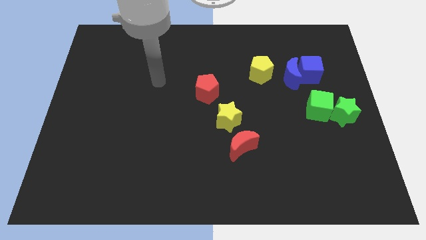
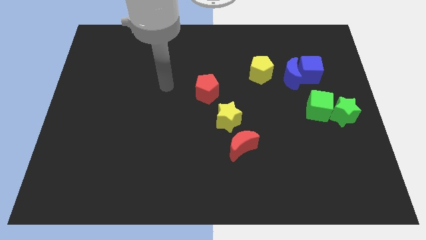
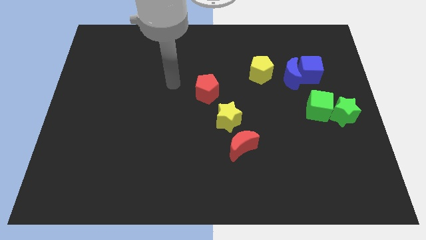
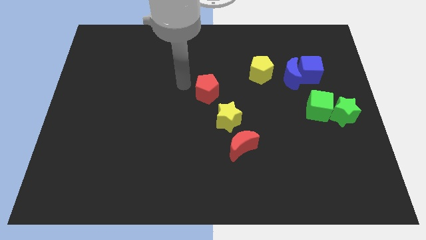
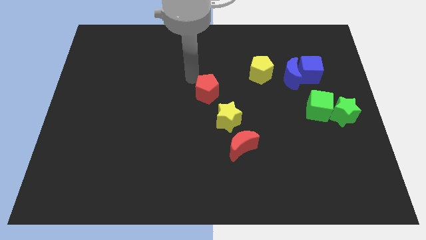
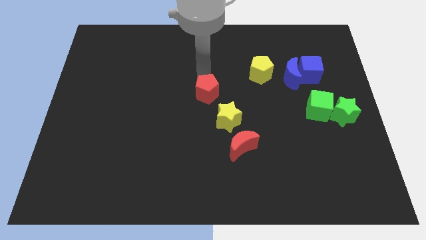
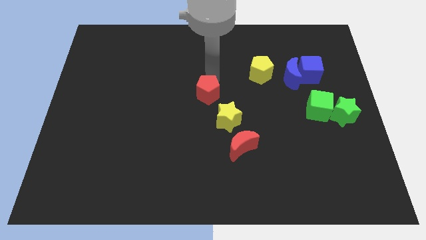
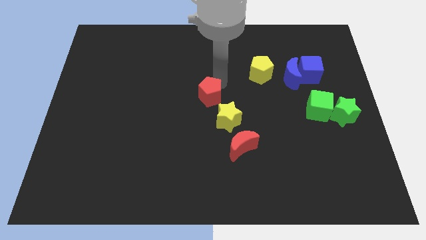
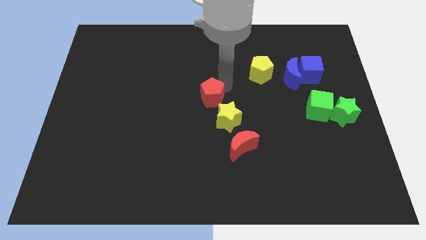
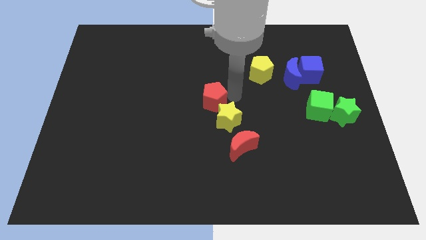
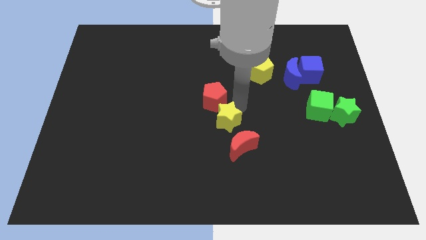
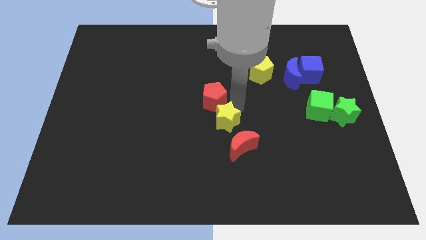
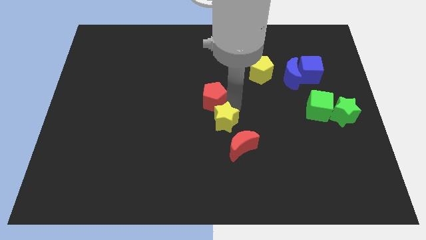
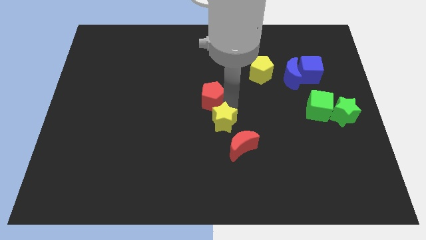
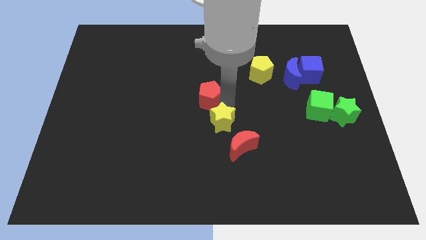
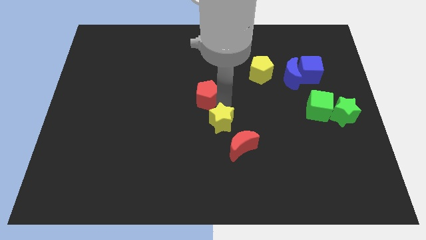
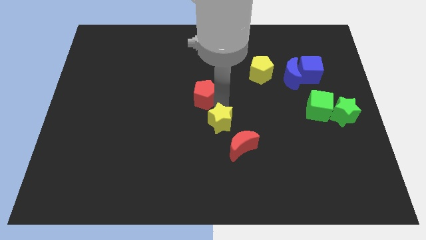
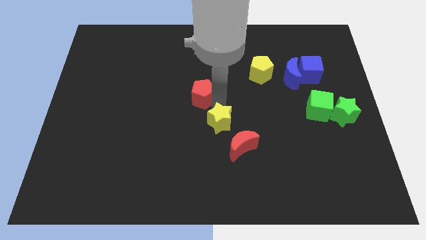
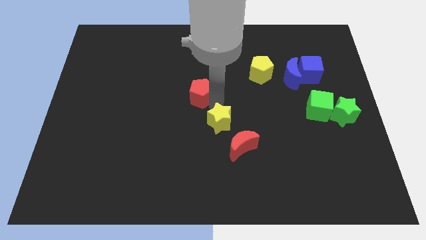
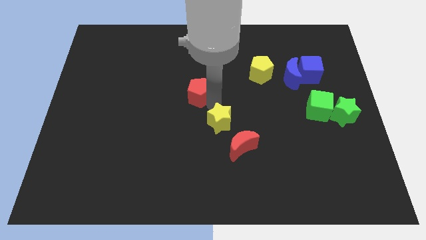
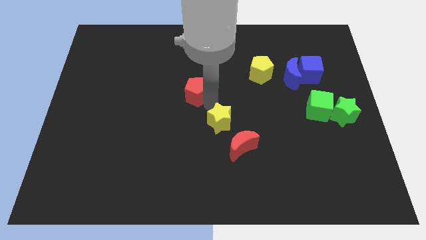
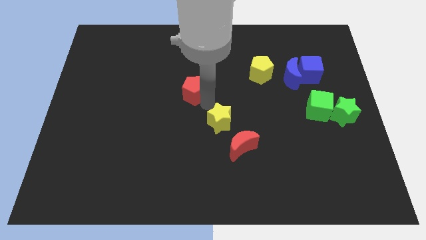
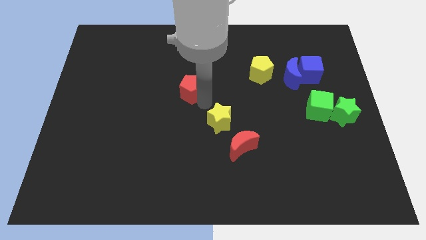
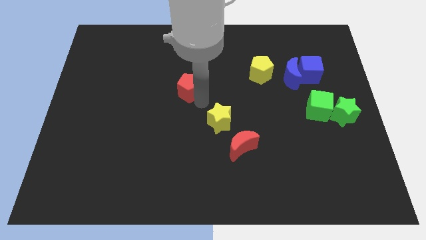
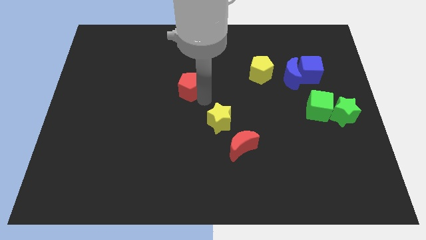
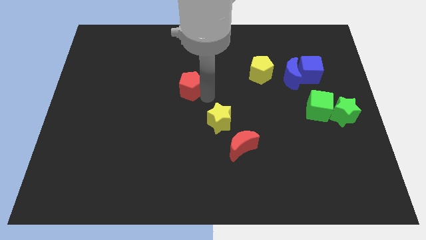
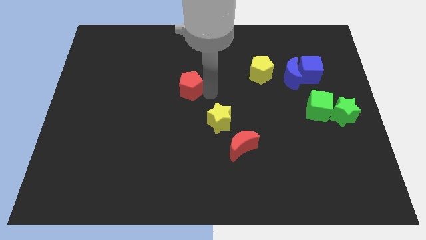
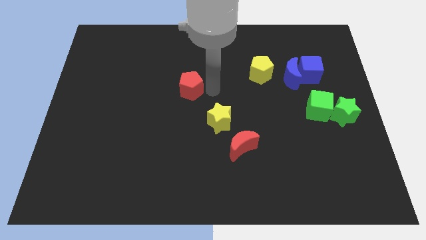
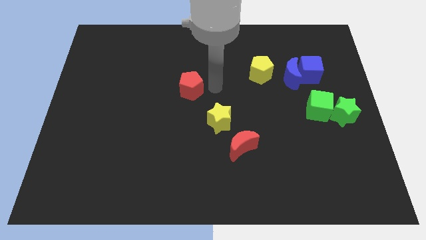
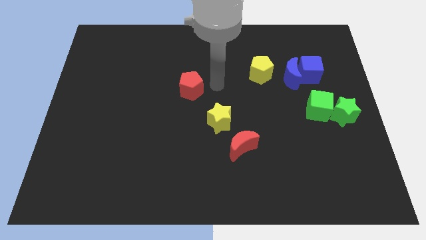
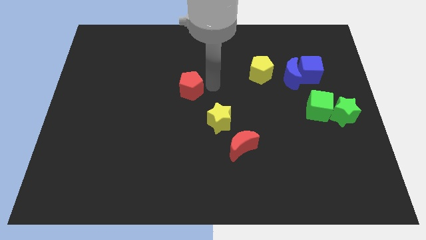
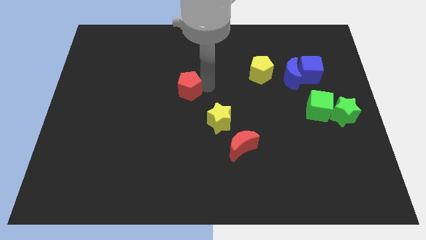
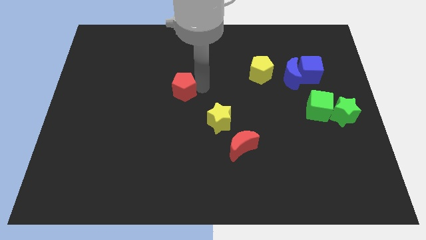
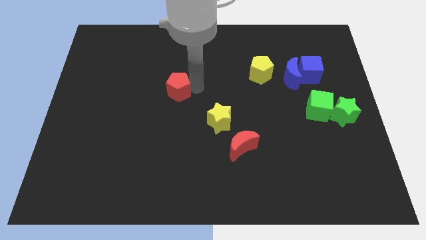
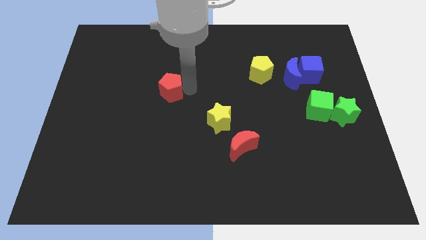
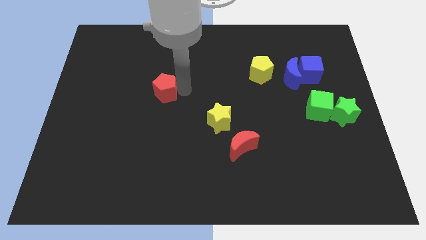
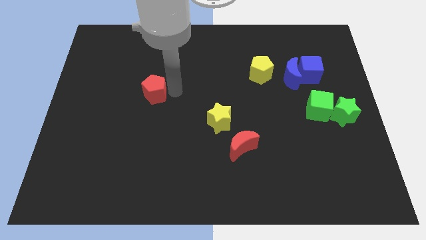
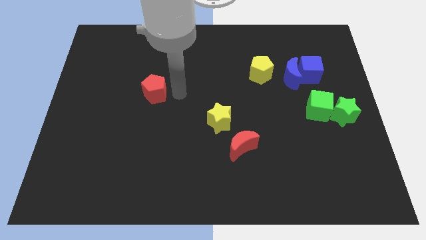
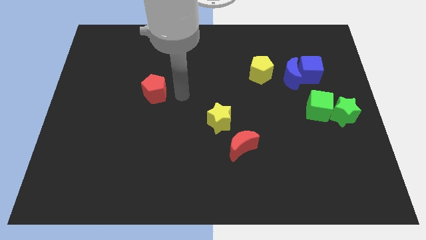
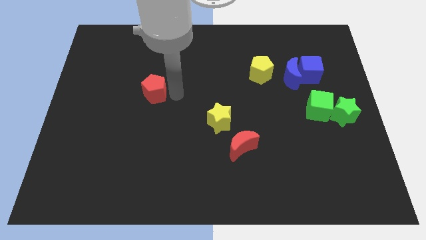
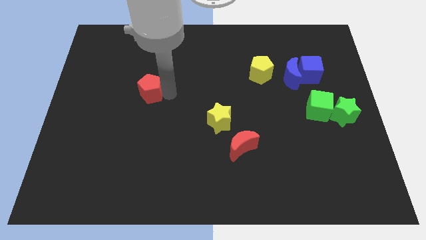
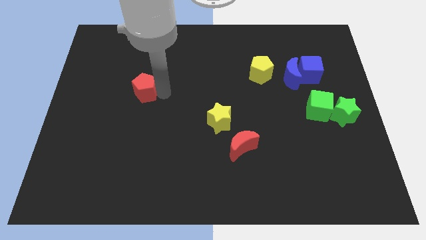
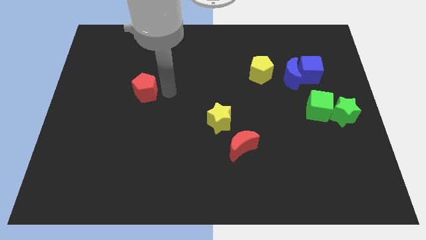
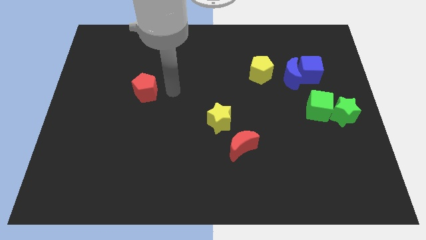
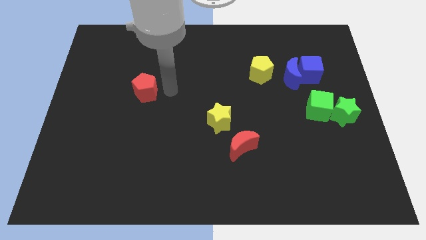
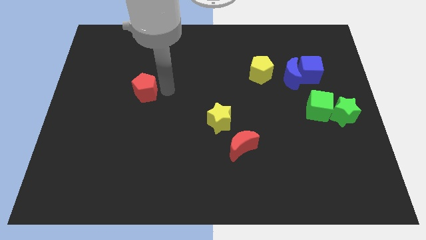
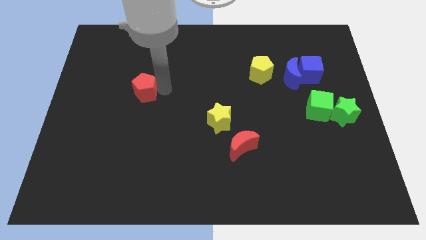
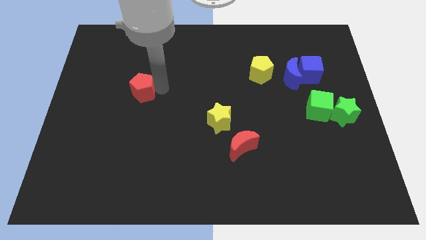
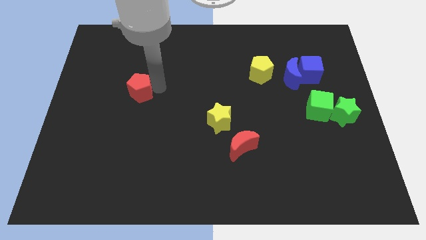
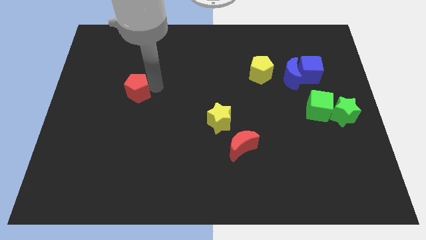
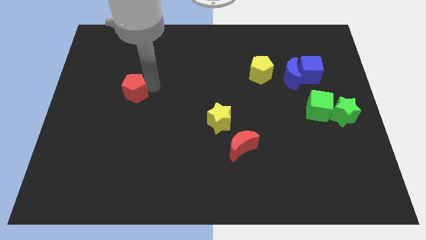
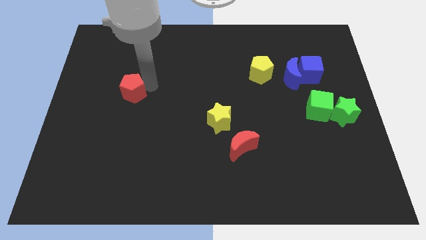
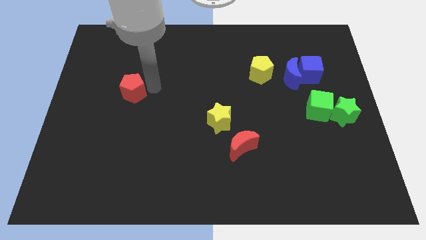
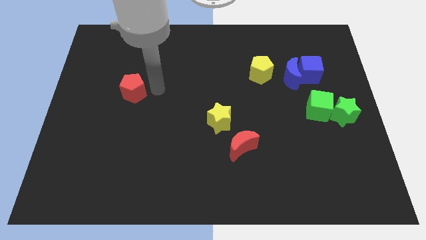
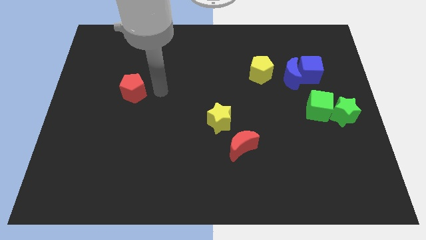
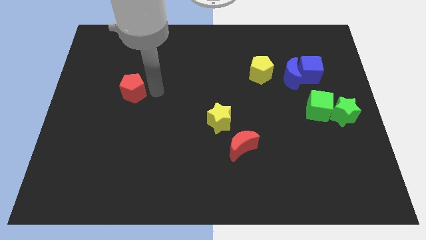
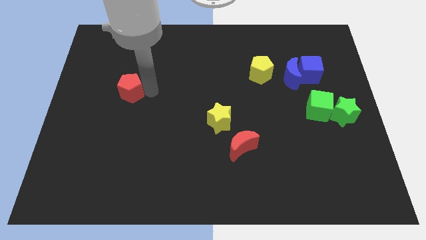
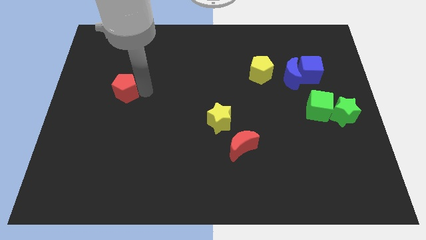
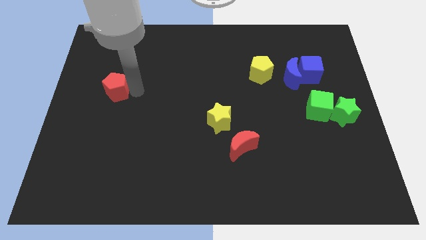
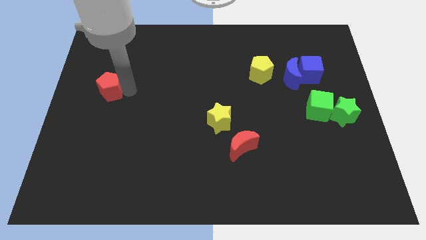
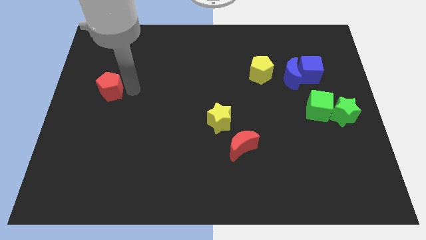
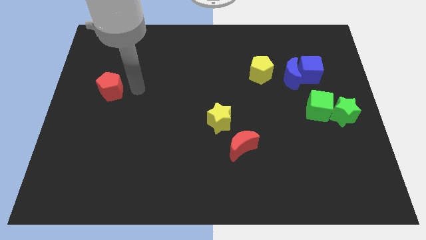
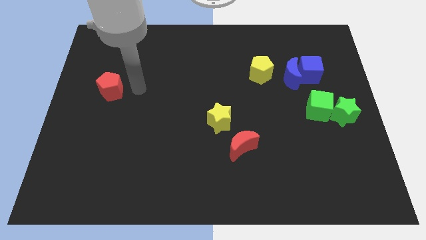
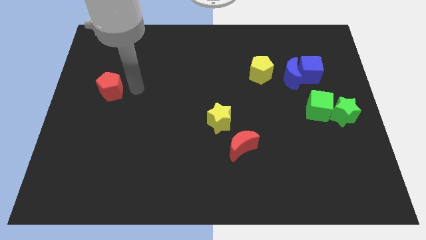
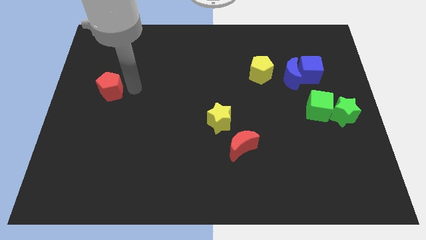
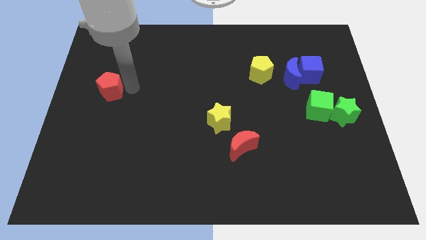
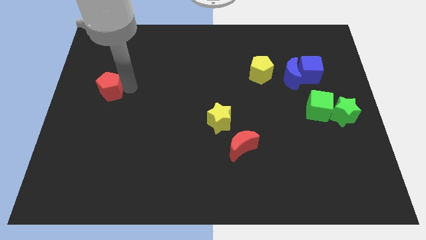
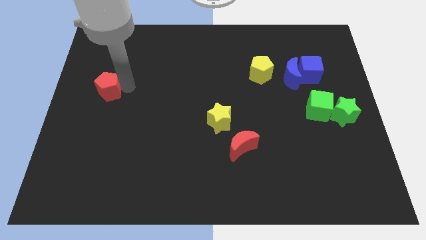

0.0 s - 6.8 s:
move the red pentagon to the left side of the board

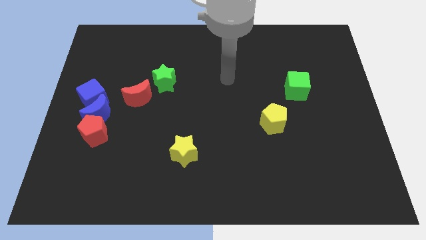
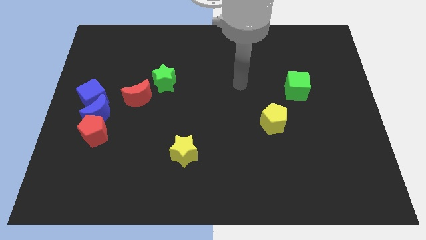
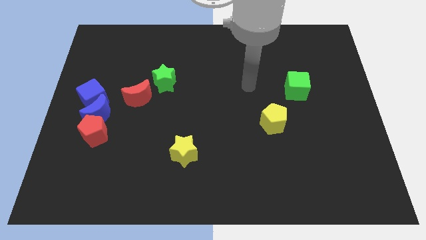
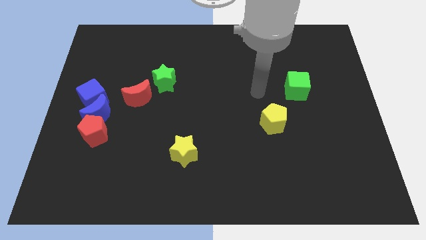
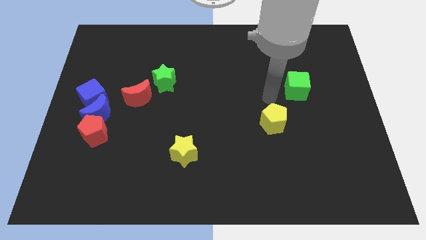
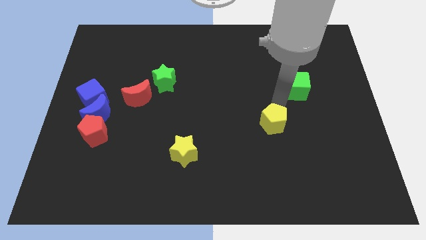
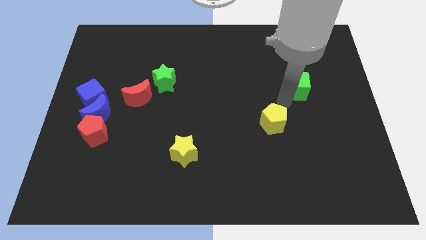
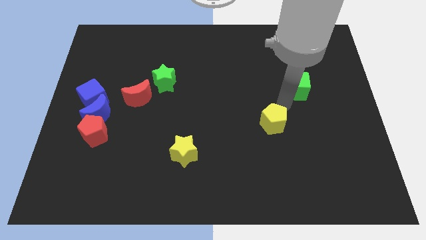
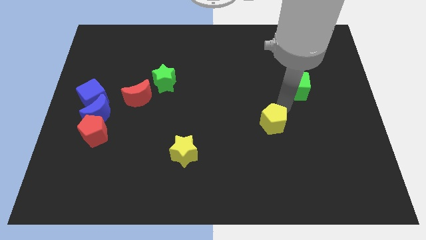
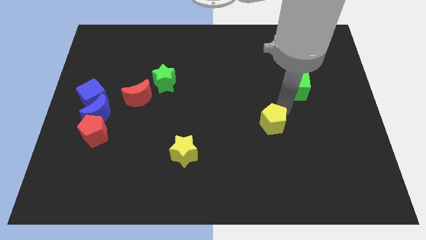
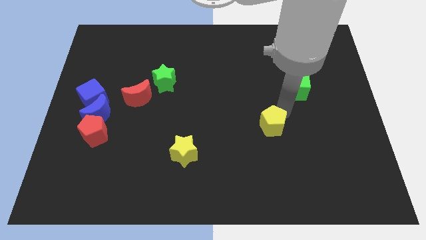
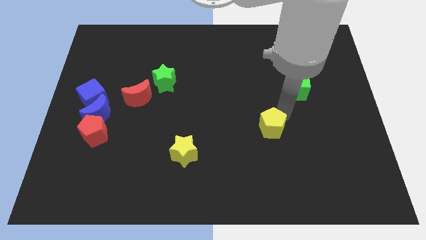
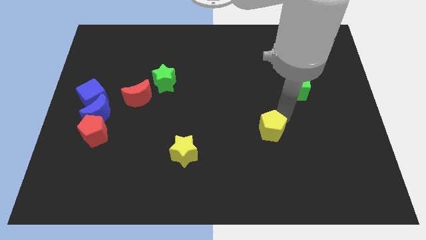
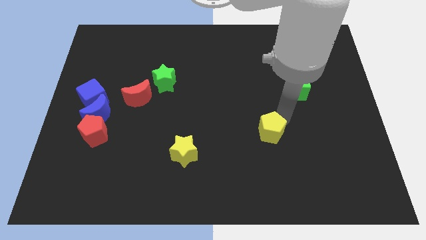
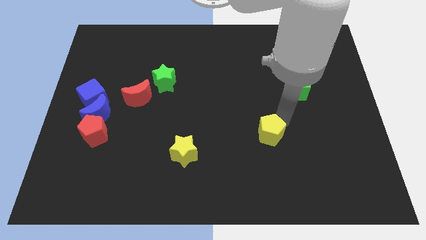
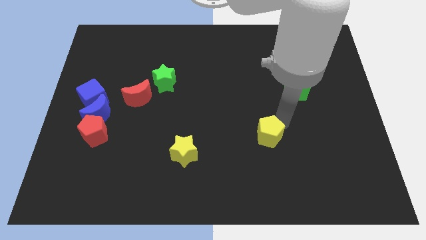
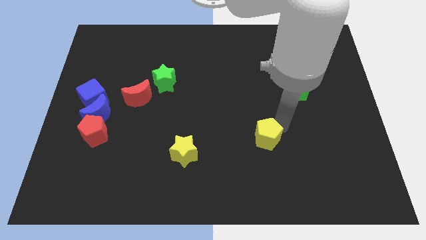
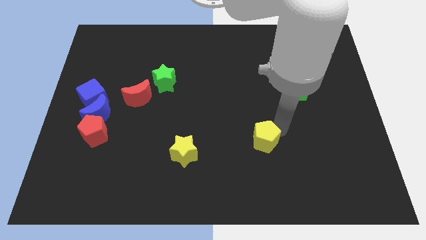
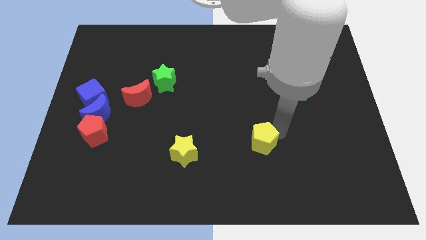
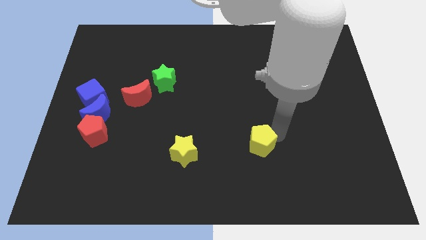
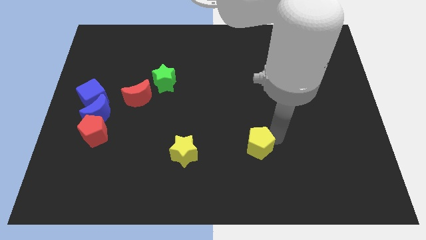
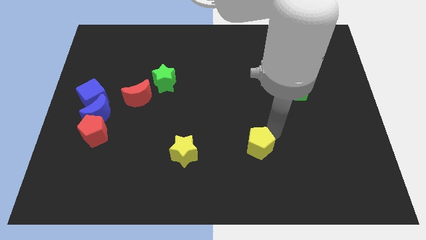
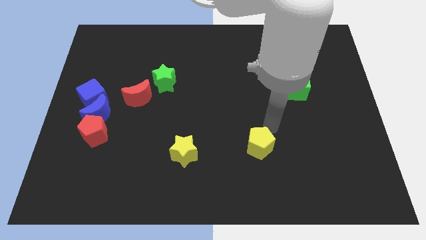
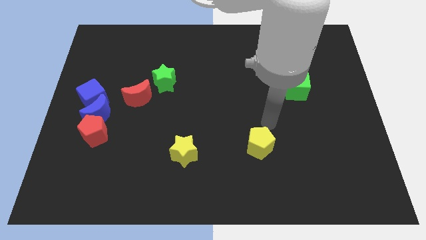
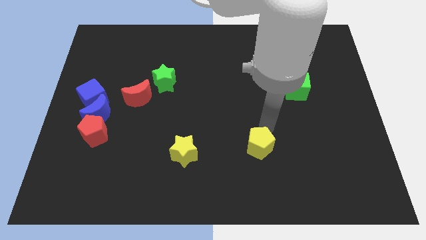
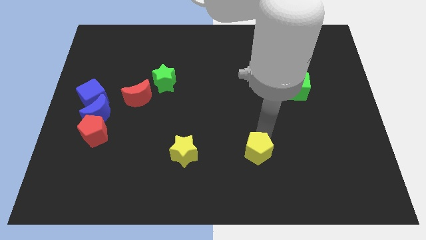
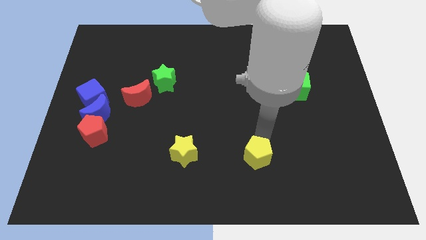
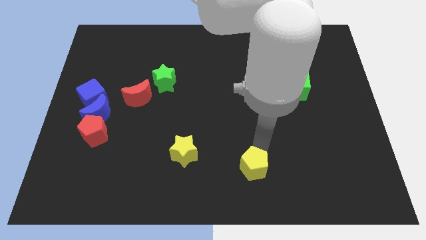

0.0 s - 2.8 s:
push the yellow pentagon to the bottom
